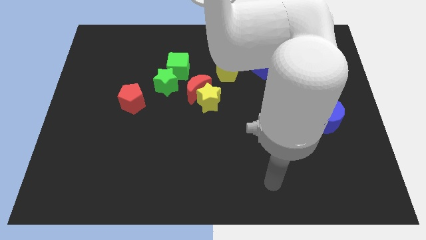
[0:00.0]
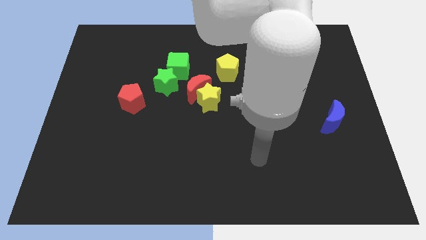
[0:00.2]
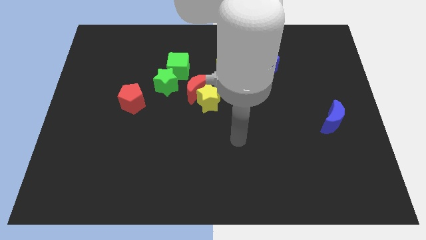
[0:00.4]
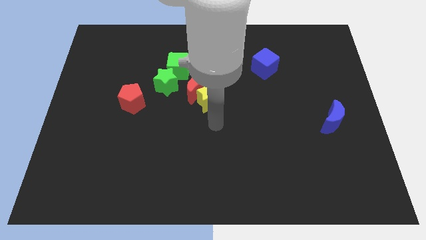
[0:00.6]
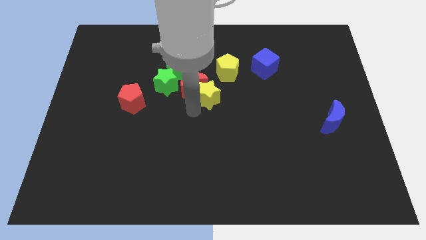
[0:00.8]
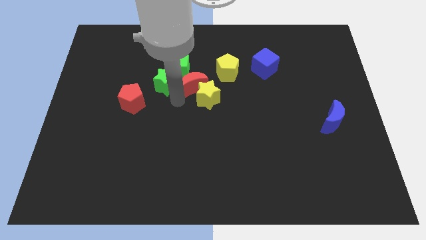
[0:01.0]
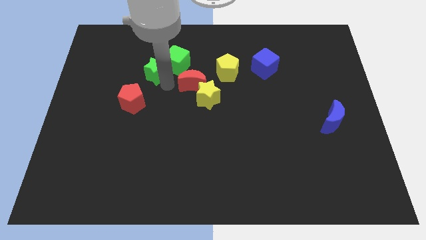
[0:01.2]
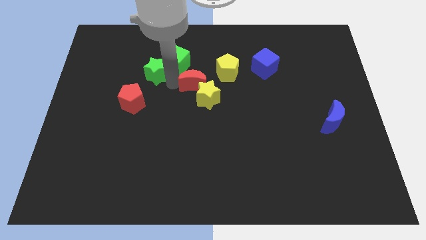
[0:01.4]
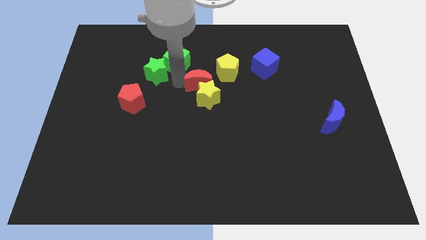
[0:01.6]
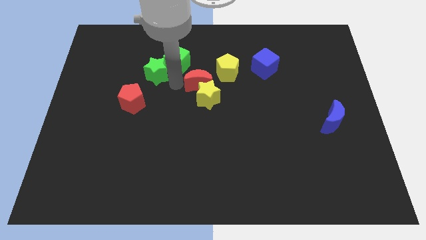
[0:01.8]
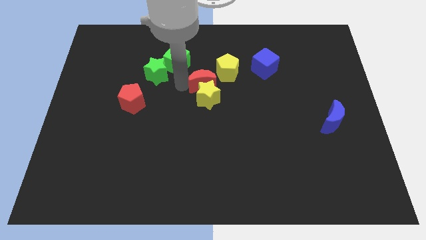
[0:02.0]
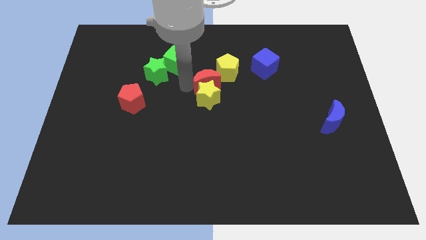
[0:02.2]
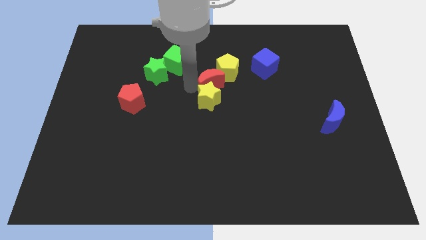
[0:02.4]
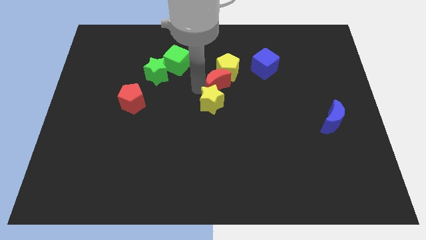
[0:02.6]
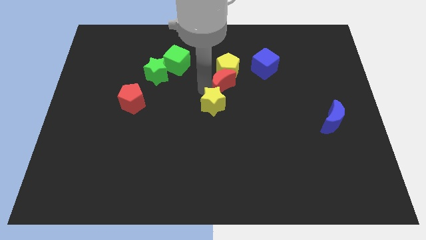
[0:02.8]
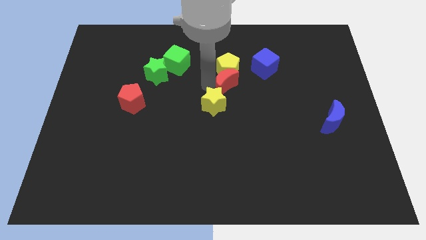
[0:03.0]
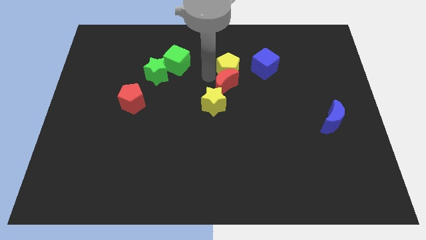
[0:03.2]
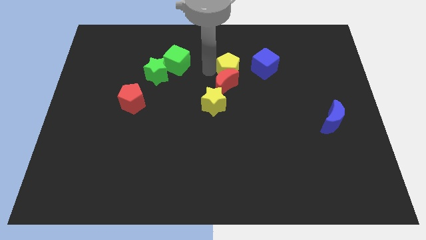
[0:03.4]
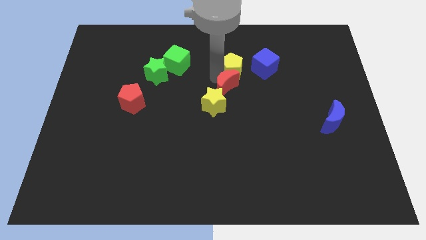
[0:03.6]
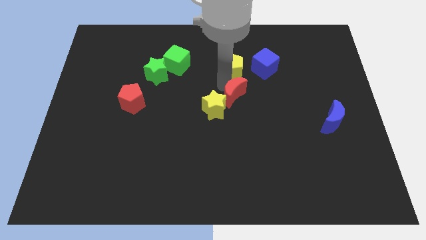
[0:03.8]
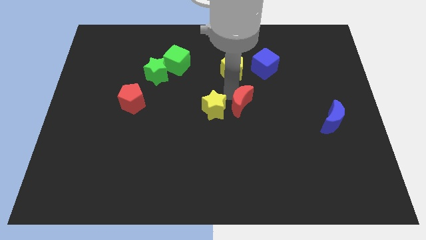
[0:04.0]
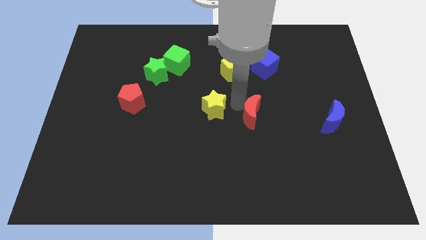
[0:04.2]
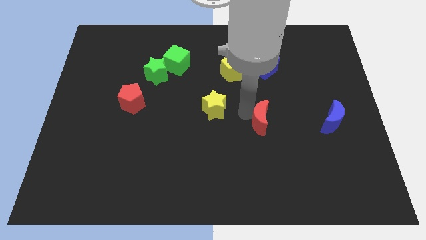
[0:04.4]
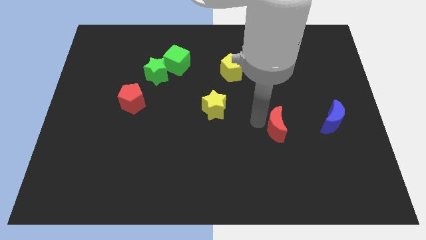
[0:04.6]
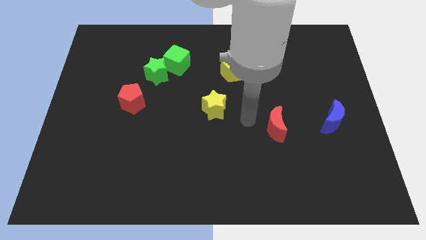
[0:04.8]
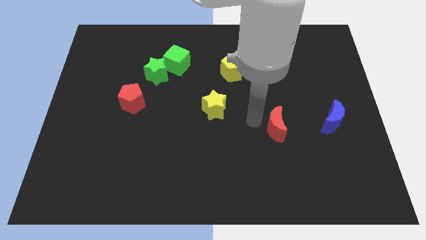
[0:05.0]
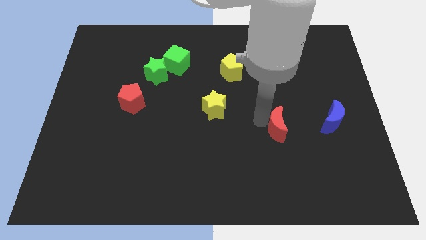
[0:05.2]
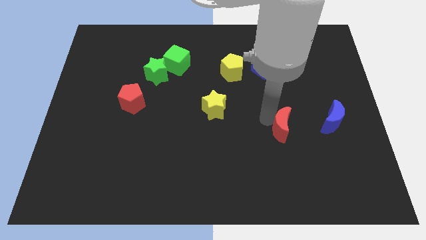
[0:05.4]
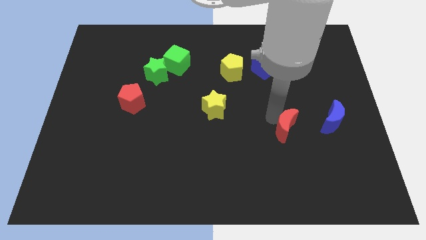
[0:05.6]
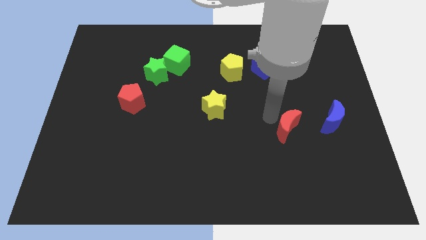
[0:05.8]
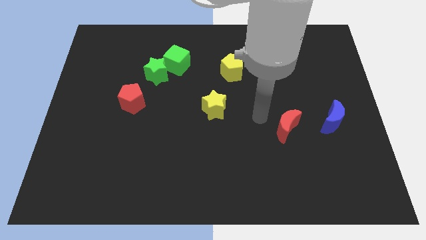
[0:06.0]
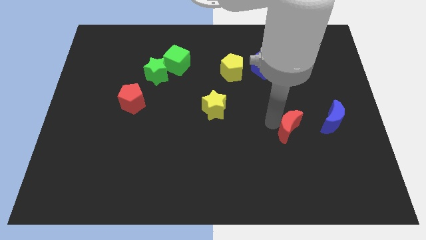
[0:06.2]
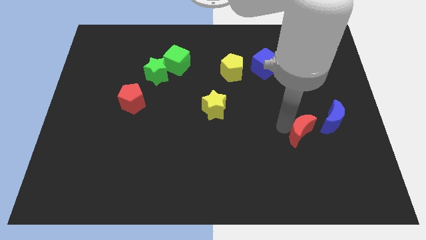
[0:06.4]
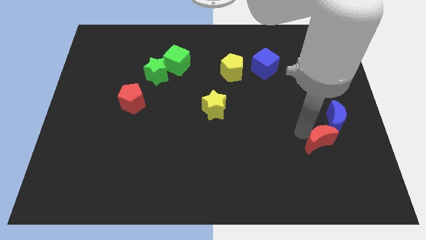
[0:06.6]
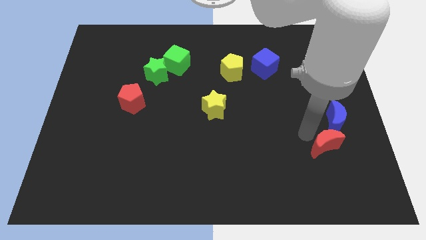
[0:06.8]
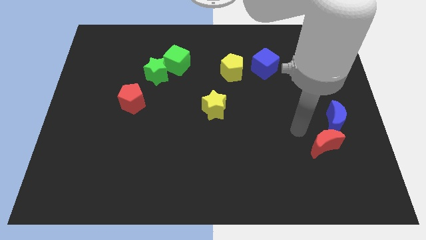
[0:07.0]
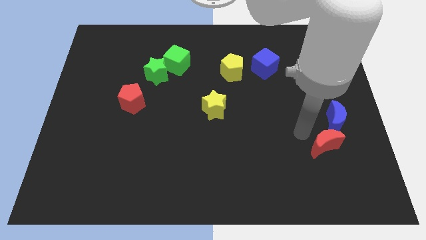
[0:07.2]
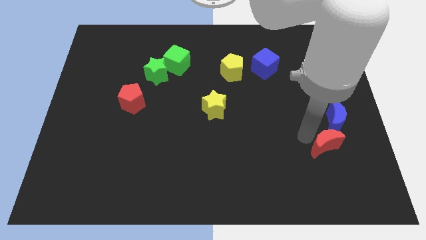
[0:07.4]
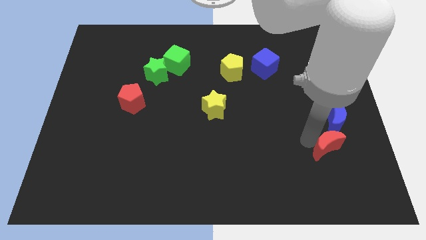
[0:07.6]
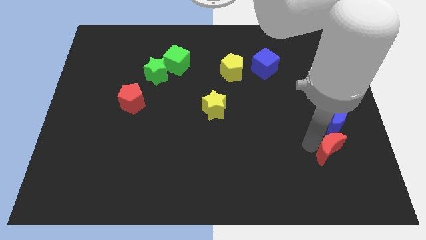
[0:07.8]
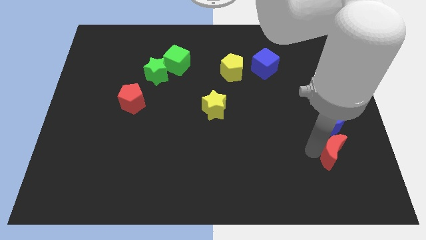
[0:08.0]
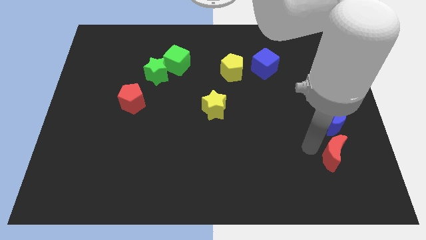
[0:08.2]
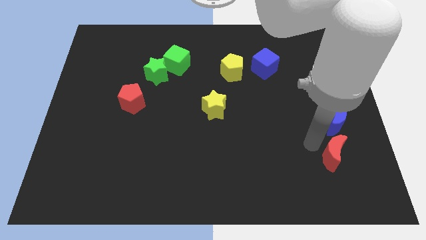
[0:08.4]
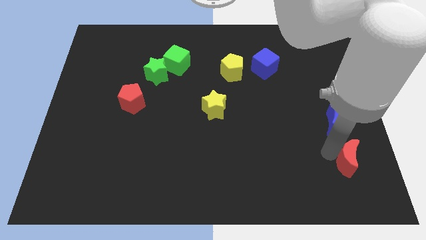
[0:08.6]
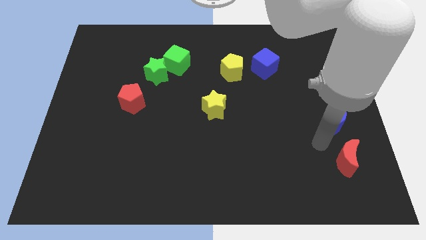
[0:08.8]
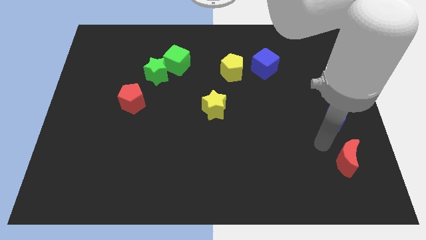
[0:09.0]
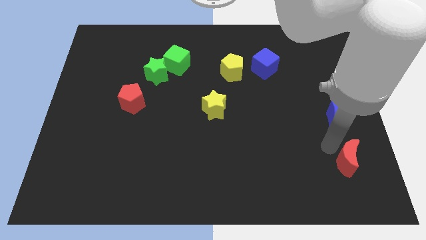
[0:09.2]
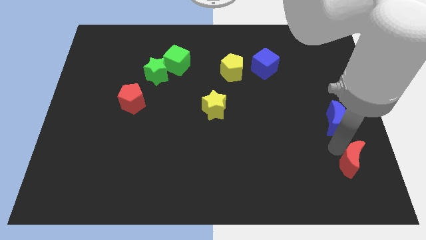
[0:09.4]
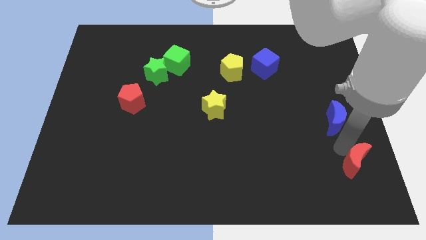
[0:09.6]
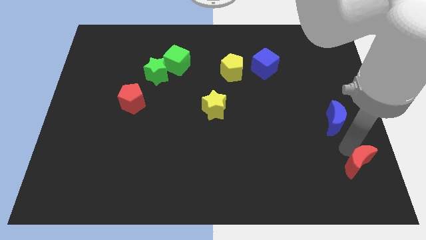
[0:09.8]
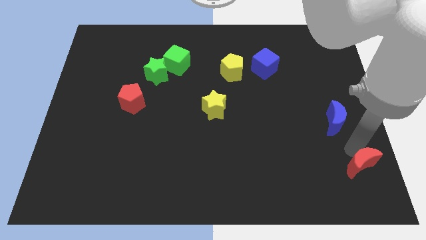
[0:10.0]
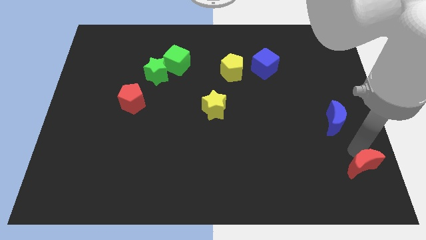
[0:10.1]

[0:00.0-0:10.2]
put the red moon to the bottom right corner

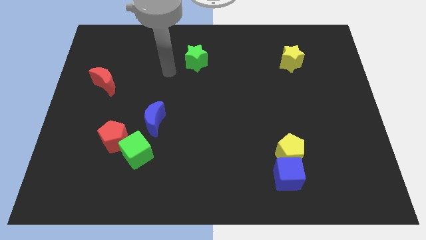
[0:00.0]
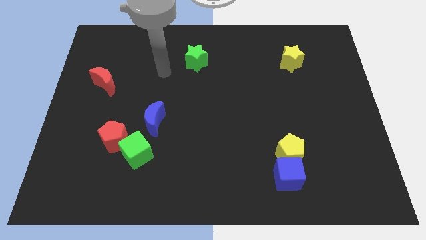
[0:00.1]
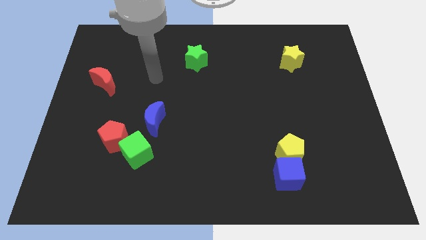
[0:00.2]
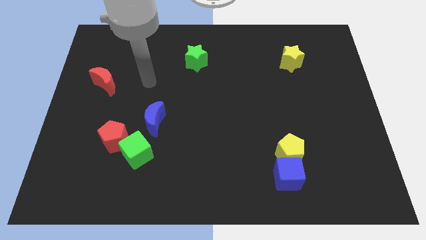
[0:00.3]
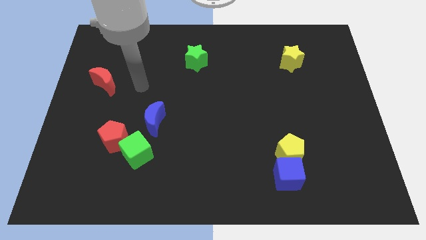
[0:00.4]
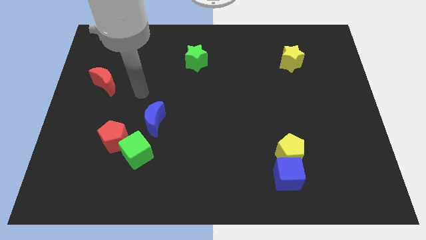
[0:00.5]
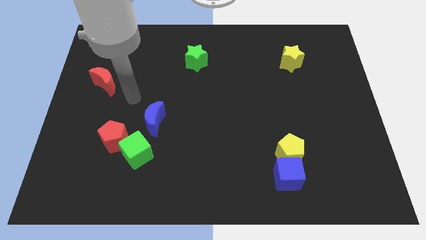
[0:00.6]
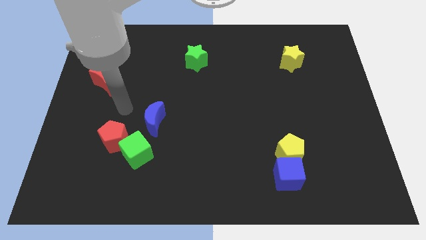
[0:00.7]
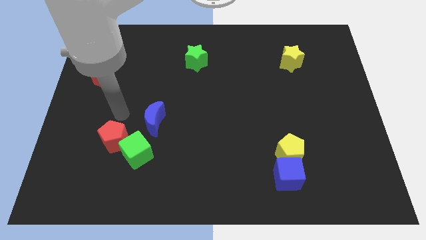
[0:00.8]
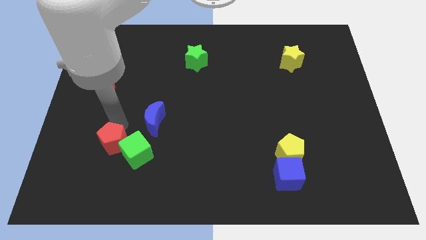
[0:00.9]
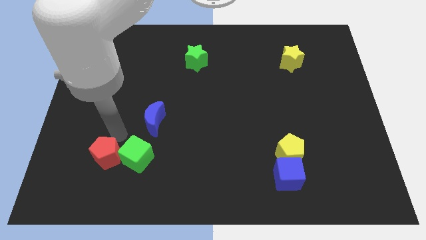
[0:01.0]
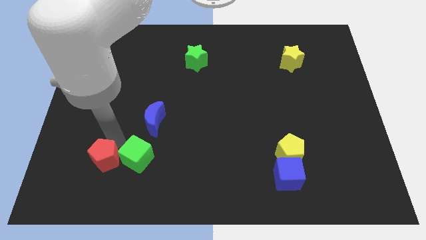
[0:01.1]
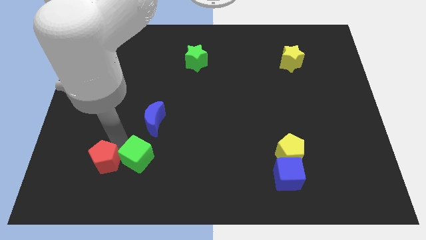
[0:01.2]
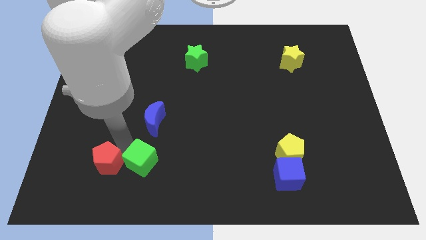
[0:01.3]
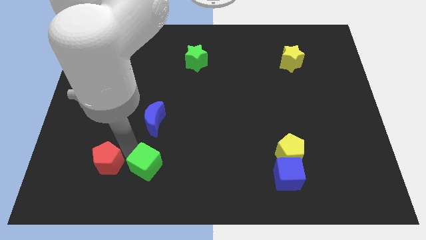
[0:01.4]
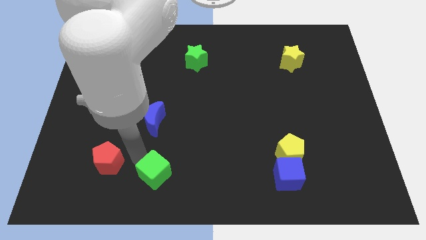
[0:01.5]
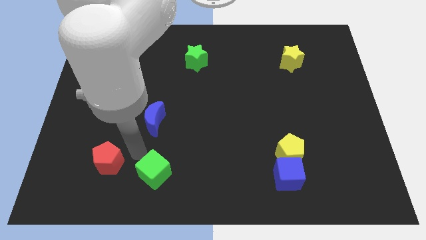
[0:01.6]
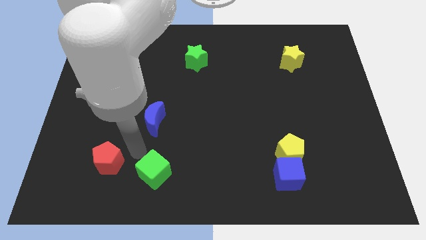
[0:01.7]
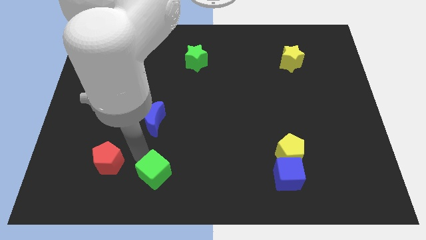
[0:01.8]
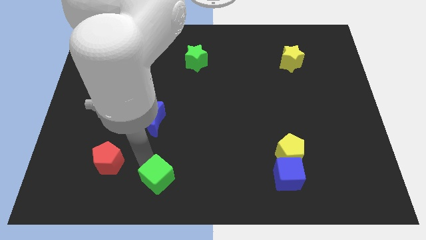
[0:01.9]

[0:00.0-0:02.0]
put the green cube to the bottom side

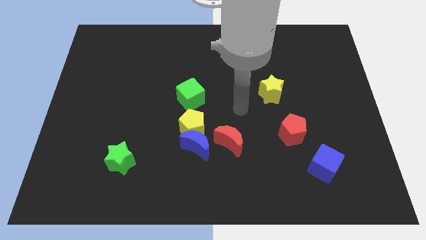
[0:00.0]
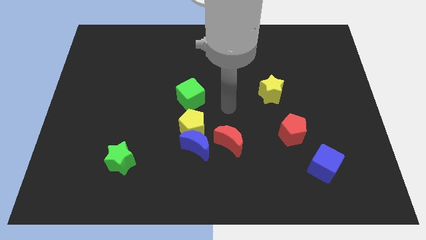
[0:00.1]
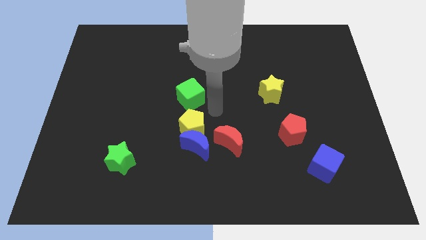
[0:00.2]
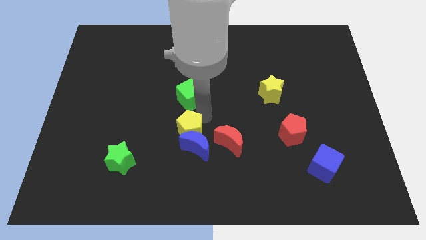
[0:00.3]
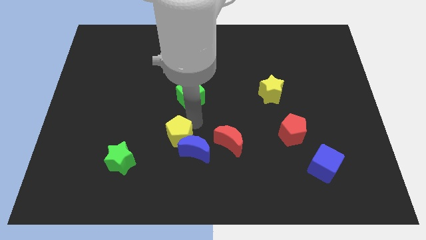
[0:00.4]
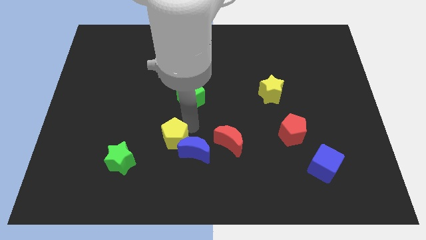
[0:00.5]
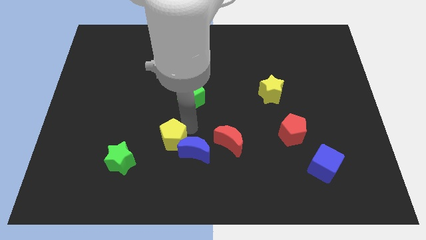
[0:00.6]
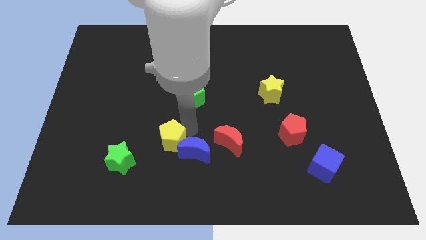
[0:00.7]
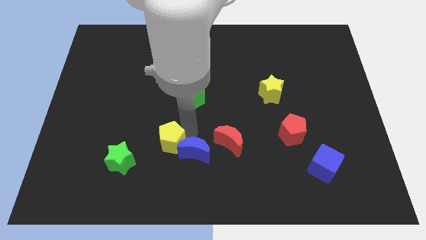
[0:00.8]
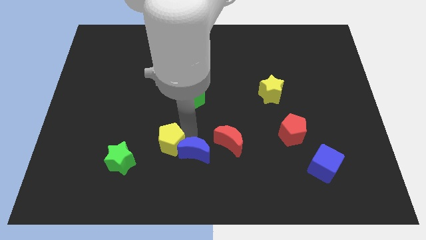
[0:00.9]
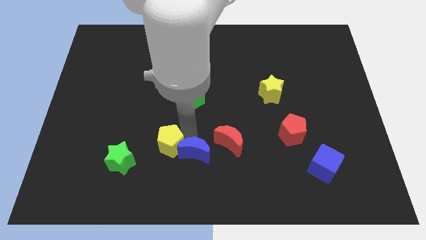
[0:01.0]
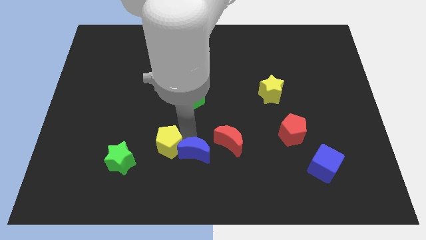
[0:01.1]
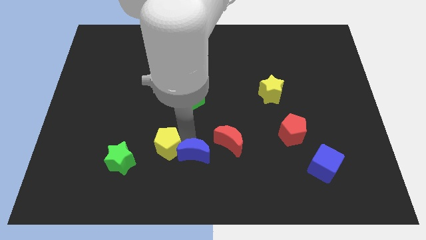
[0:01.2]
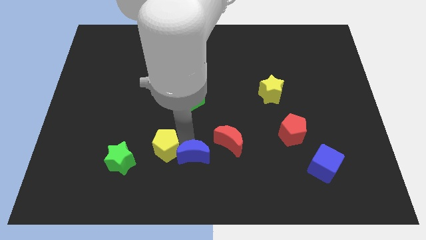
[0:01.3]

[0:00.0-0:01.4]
slide the blue moon to the bottom side
